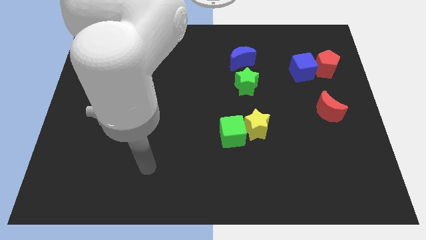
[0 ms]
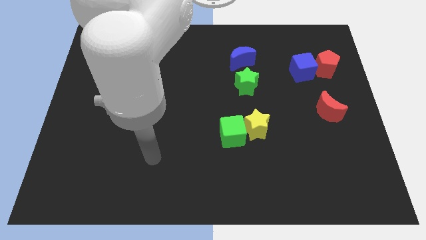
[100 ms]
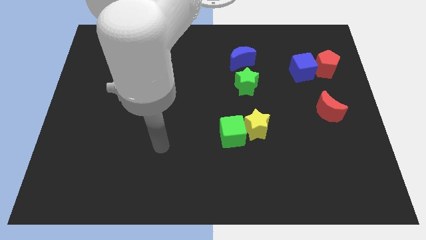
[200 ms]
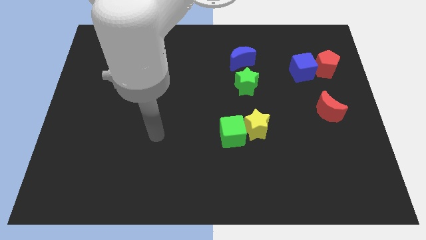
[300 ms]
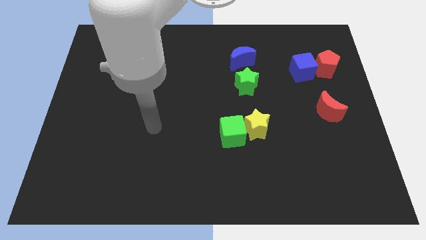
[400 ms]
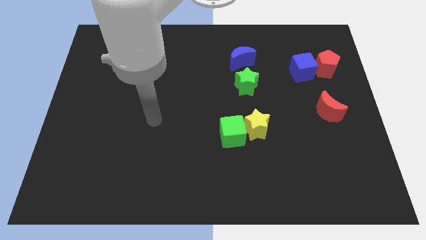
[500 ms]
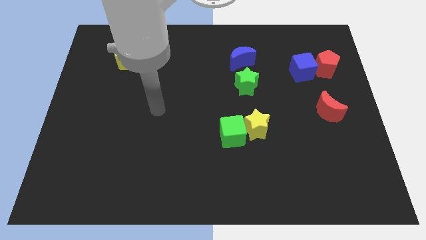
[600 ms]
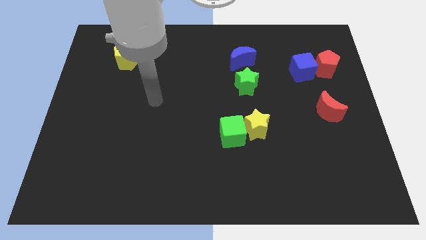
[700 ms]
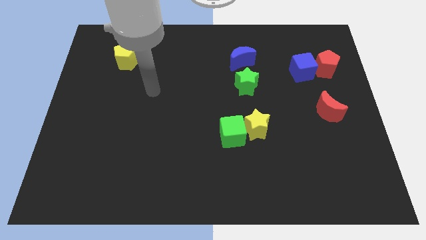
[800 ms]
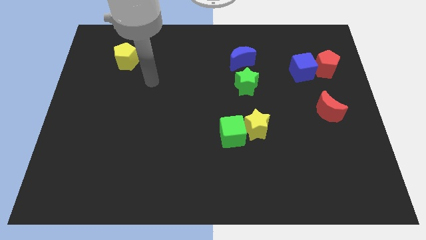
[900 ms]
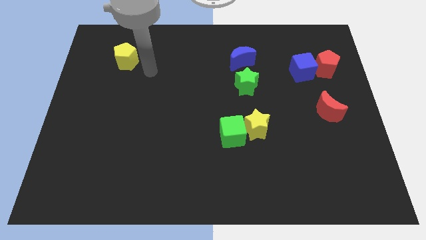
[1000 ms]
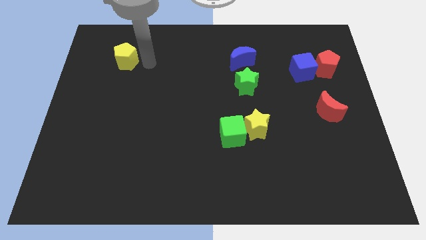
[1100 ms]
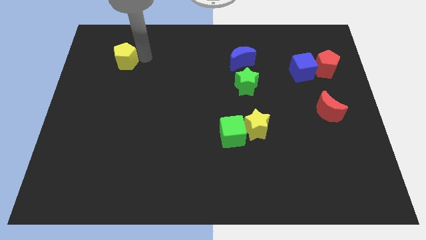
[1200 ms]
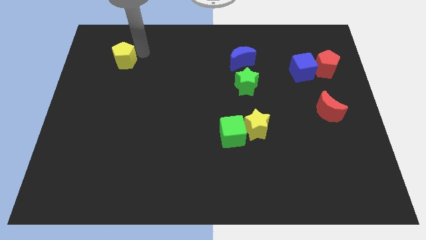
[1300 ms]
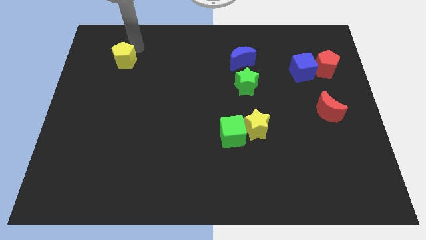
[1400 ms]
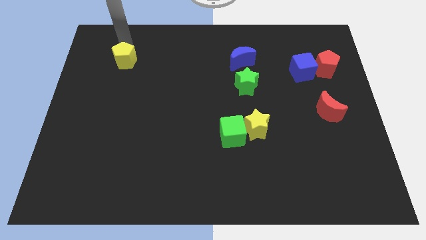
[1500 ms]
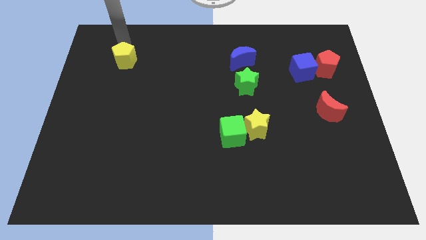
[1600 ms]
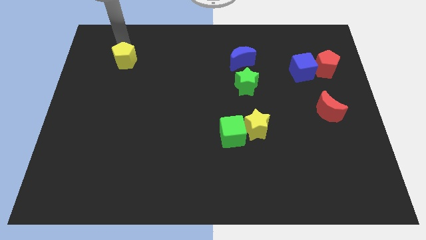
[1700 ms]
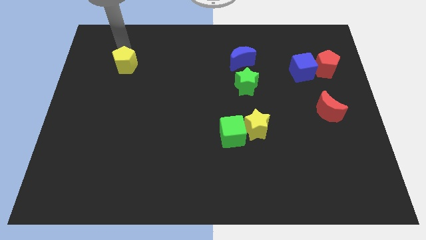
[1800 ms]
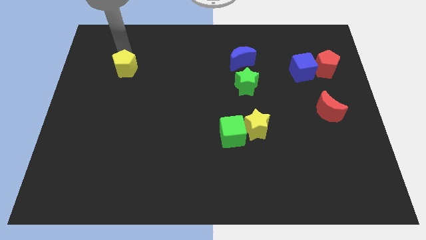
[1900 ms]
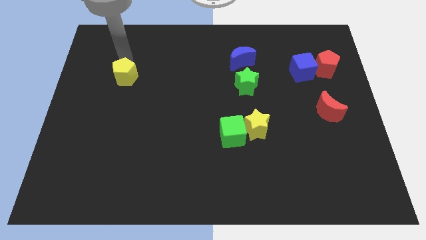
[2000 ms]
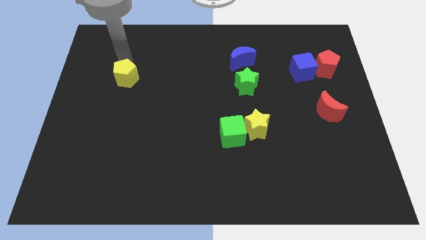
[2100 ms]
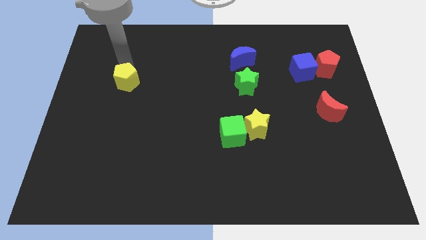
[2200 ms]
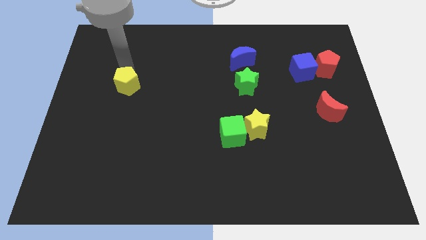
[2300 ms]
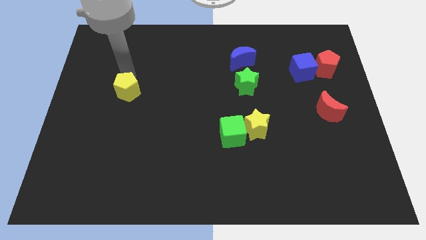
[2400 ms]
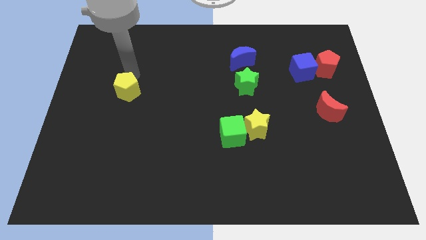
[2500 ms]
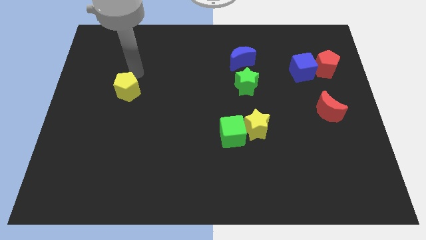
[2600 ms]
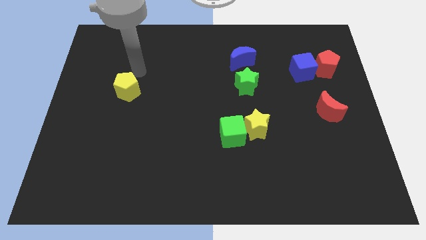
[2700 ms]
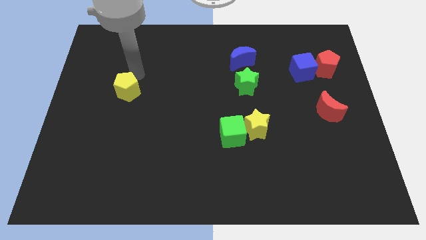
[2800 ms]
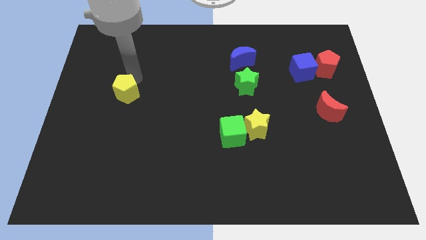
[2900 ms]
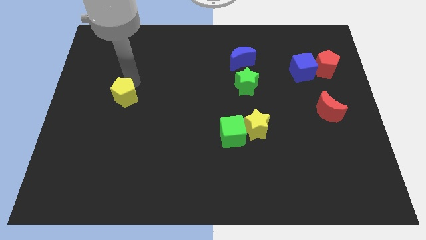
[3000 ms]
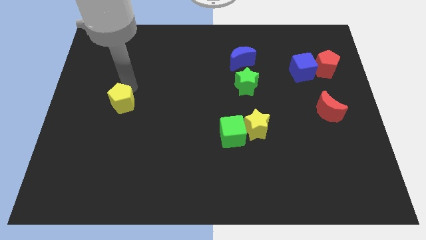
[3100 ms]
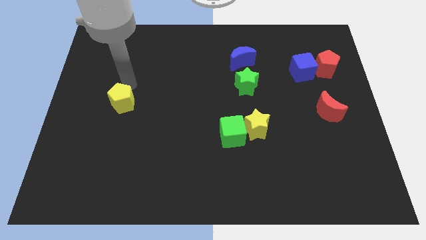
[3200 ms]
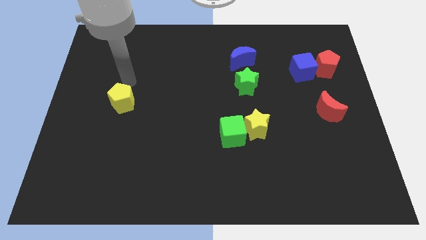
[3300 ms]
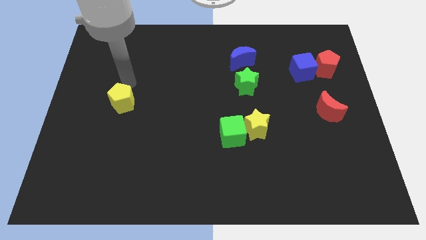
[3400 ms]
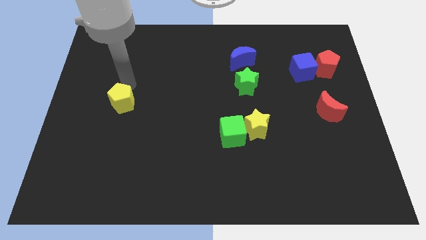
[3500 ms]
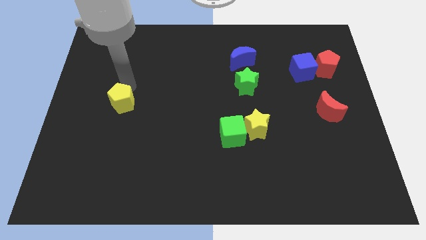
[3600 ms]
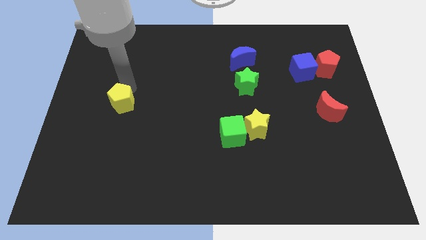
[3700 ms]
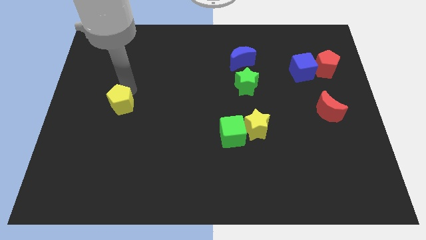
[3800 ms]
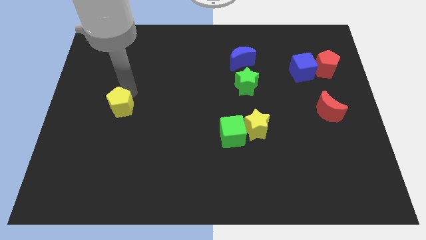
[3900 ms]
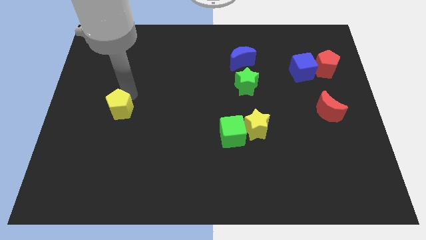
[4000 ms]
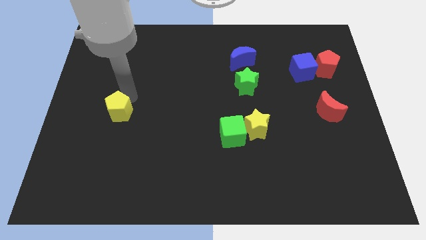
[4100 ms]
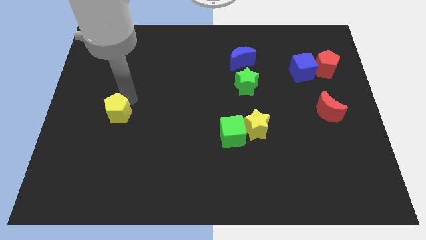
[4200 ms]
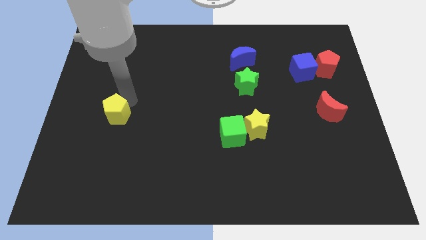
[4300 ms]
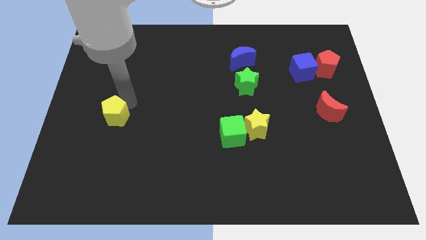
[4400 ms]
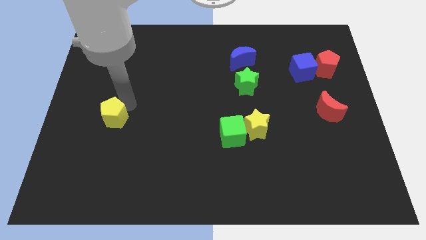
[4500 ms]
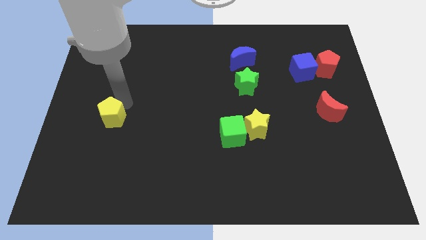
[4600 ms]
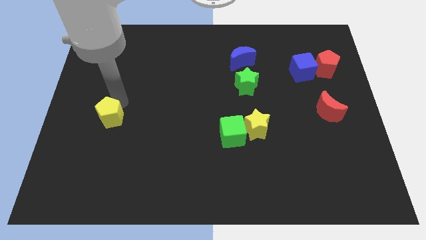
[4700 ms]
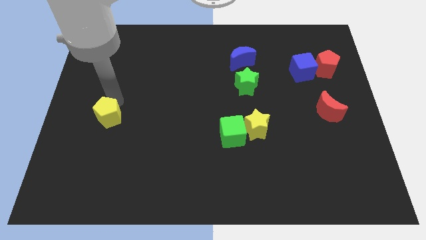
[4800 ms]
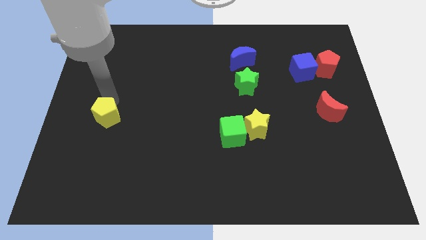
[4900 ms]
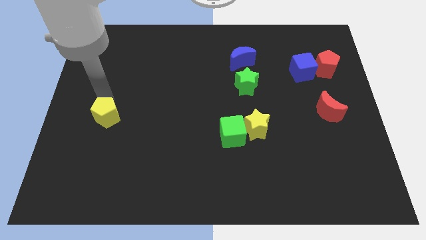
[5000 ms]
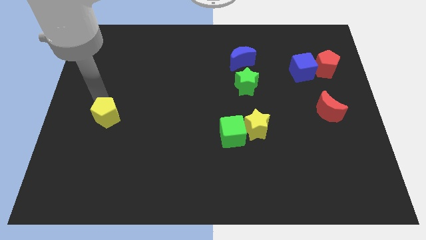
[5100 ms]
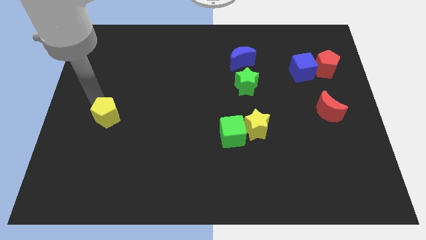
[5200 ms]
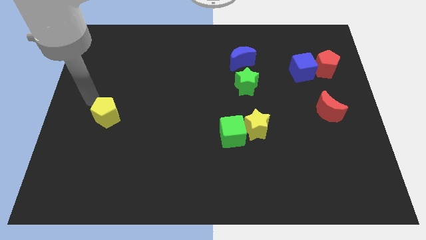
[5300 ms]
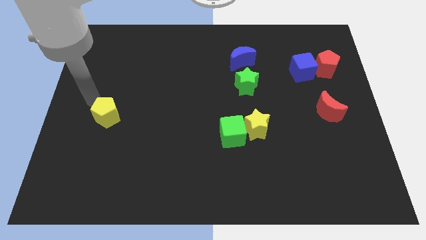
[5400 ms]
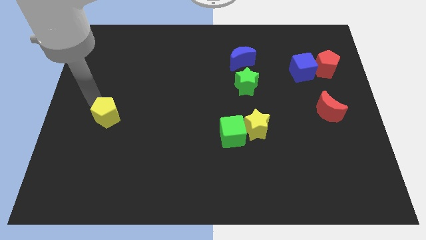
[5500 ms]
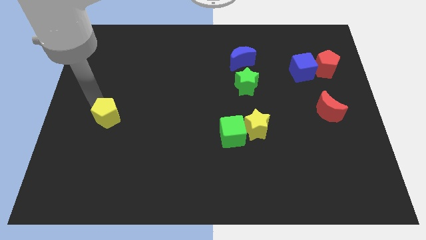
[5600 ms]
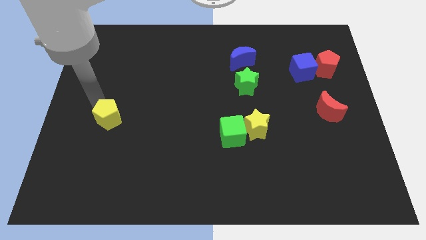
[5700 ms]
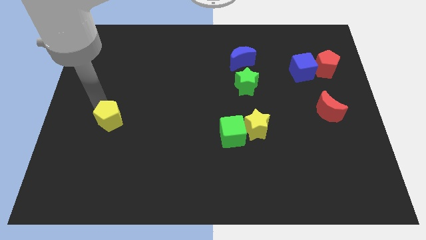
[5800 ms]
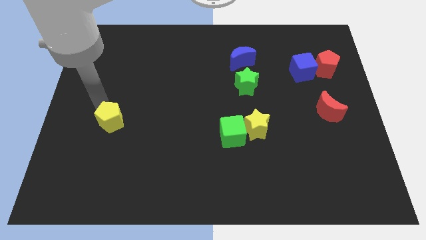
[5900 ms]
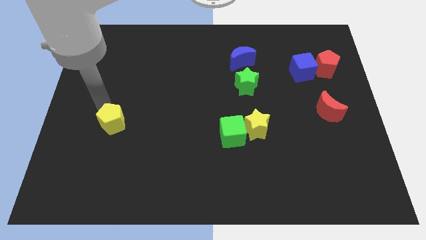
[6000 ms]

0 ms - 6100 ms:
push the yellow pentagon down

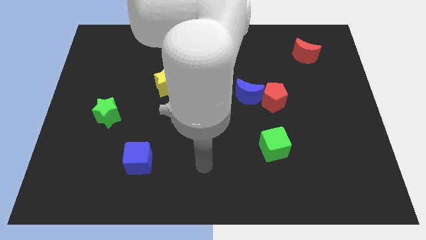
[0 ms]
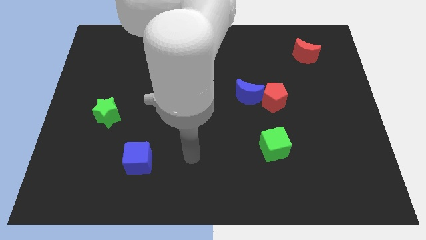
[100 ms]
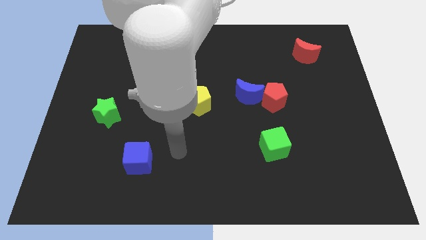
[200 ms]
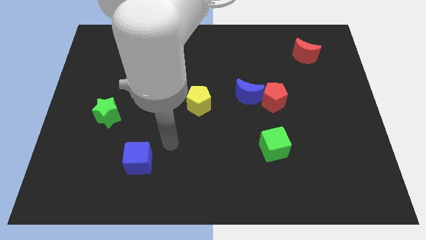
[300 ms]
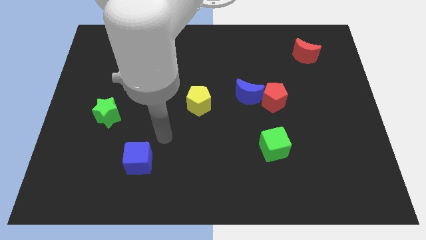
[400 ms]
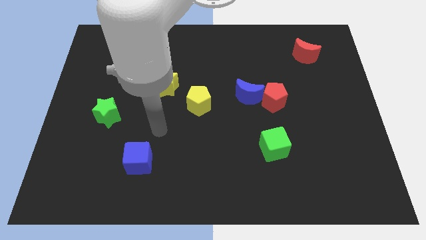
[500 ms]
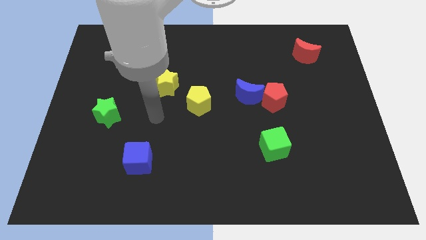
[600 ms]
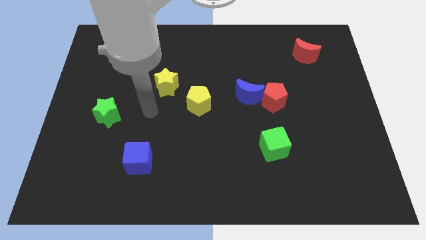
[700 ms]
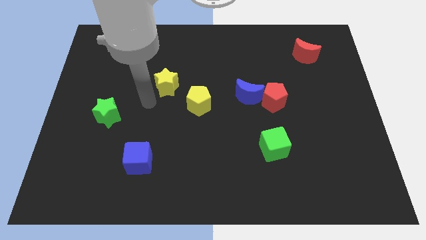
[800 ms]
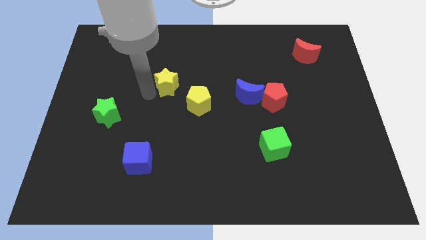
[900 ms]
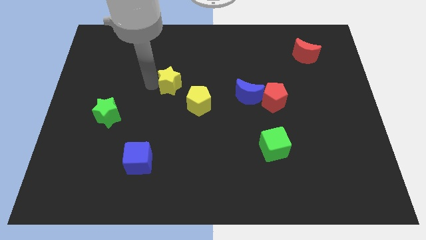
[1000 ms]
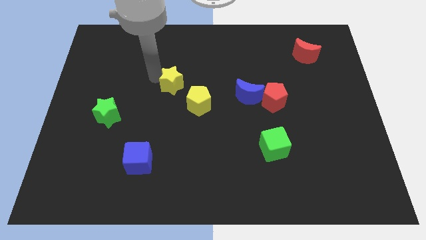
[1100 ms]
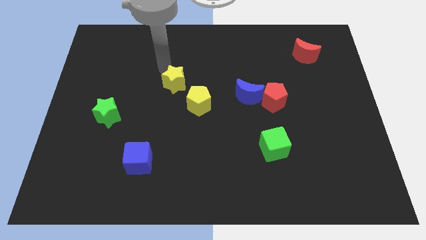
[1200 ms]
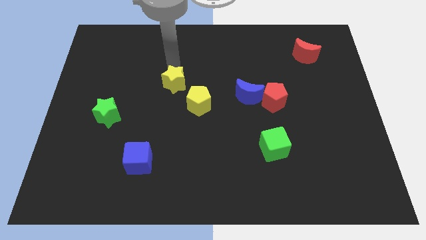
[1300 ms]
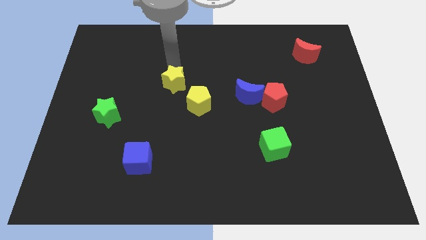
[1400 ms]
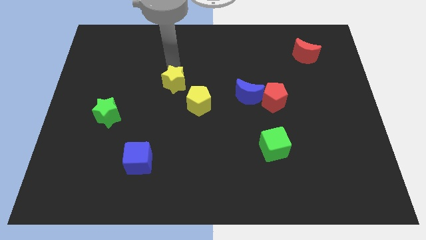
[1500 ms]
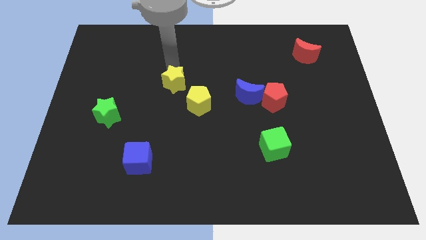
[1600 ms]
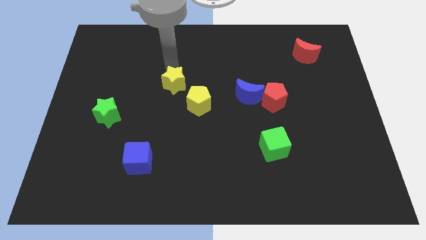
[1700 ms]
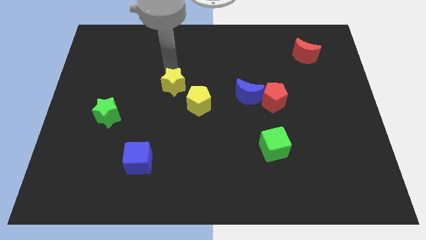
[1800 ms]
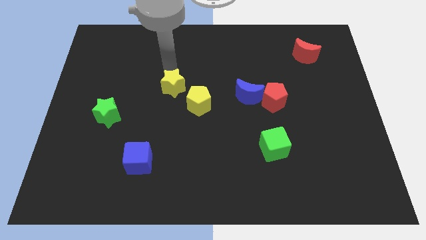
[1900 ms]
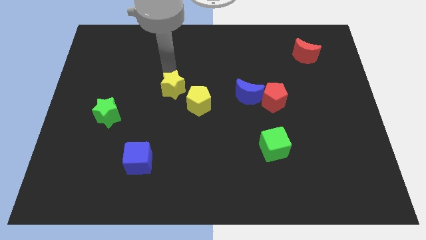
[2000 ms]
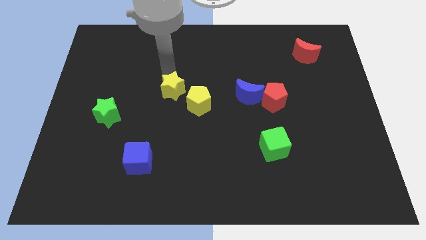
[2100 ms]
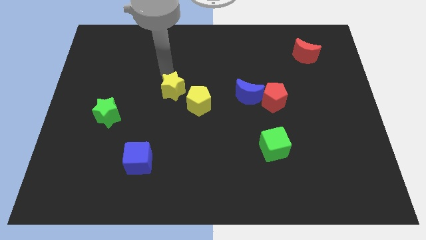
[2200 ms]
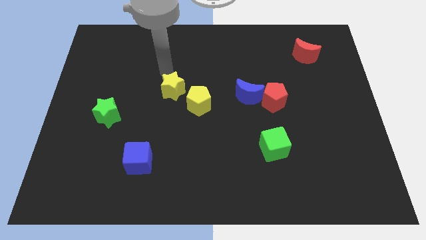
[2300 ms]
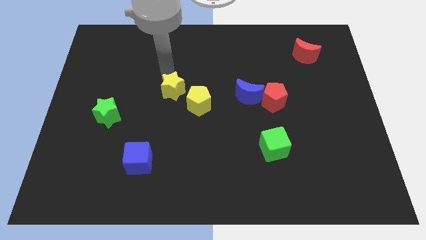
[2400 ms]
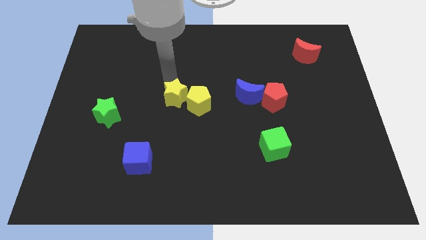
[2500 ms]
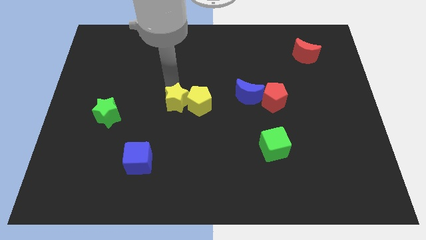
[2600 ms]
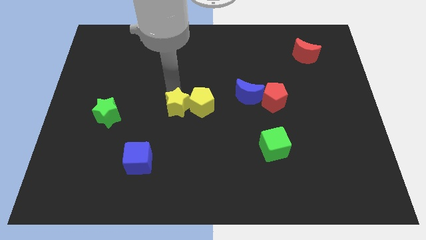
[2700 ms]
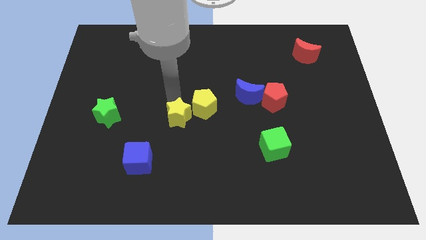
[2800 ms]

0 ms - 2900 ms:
move the yellow star a bit down and to the right
